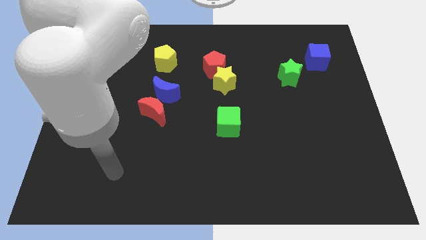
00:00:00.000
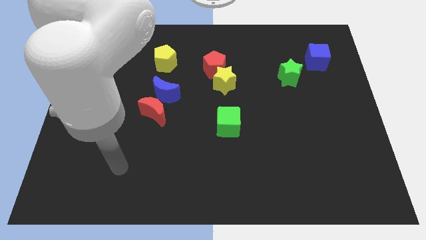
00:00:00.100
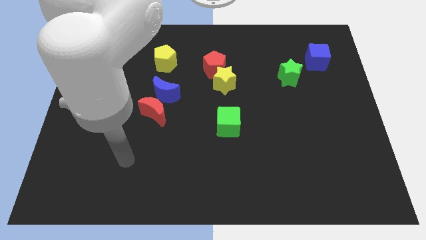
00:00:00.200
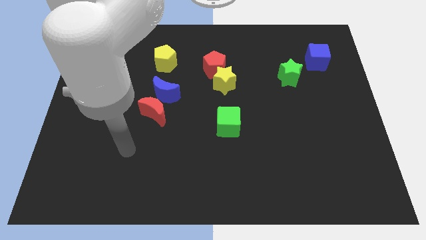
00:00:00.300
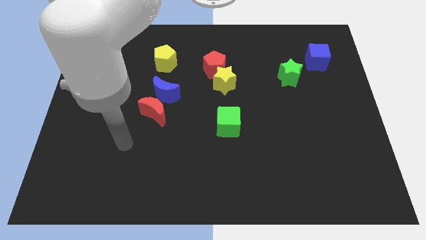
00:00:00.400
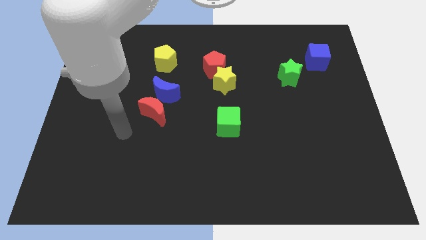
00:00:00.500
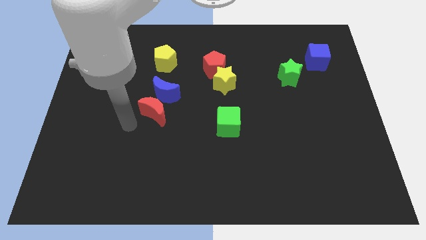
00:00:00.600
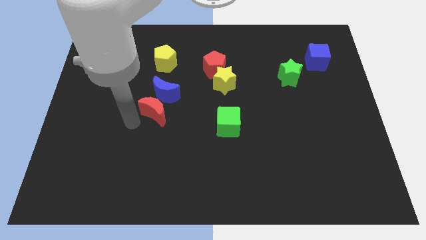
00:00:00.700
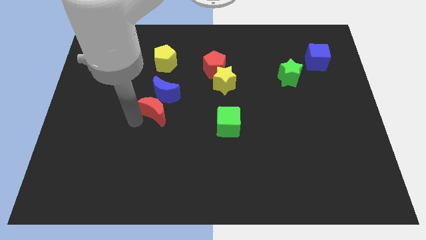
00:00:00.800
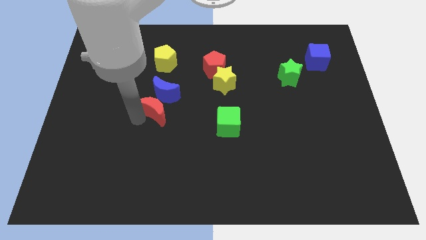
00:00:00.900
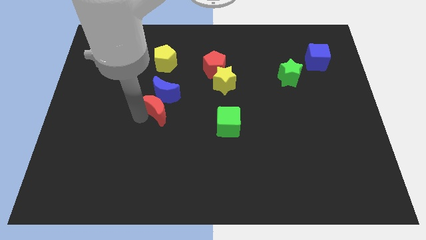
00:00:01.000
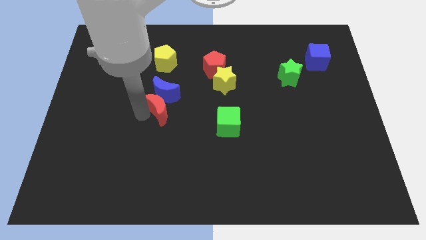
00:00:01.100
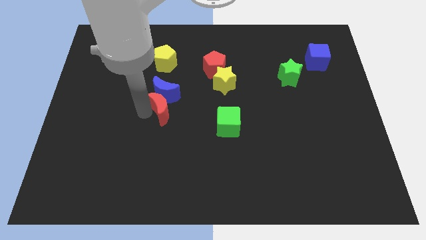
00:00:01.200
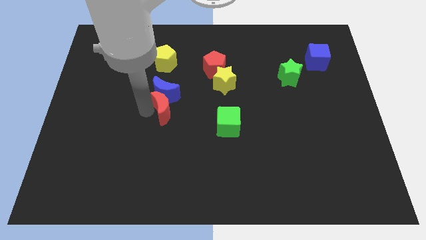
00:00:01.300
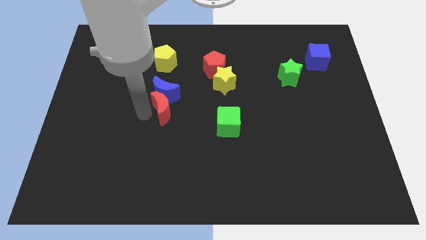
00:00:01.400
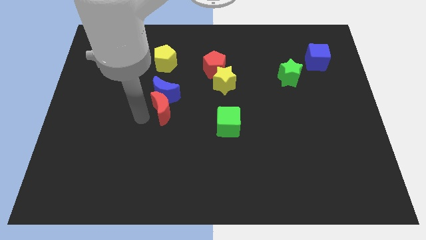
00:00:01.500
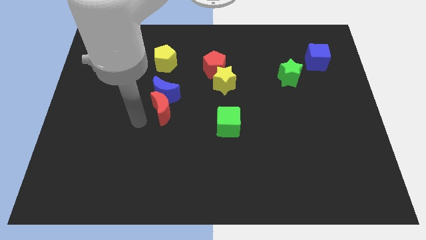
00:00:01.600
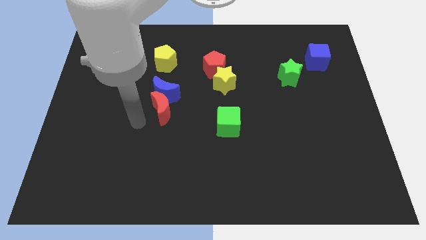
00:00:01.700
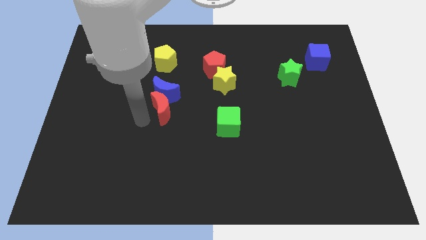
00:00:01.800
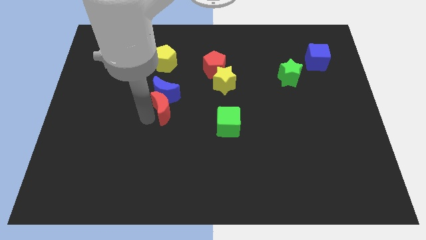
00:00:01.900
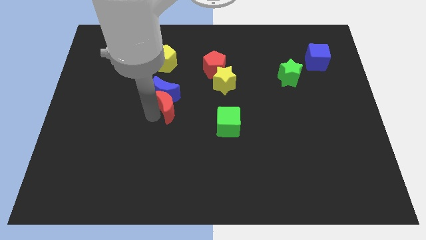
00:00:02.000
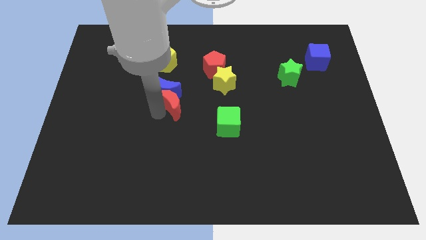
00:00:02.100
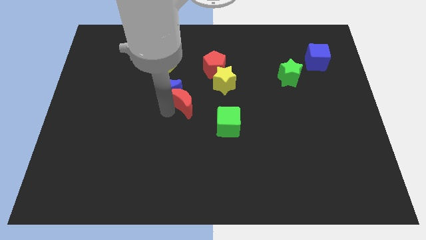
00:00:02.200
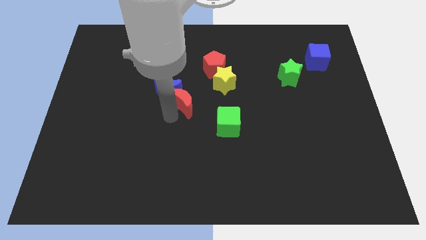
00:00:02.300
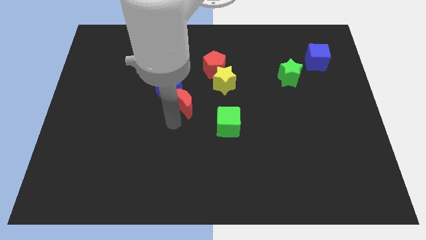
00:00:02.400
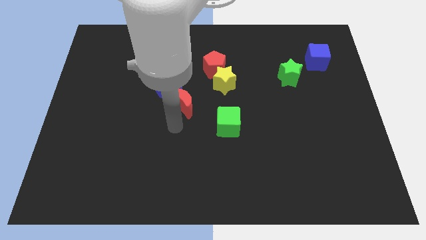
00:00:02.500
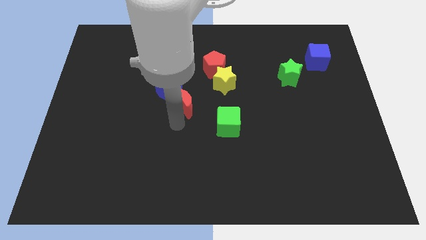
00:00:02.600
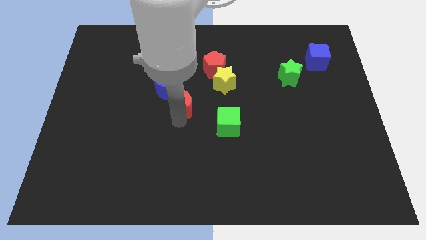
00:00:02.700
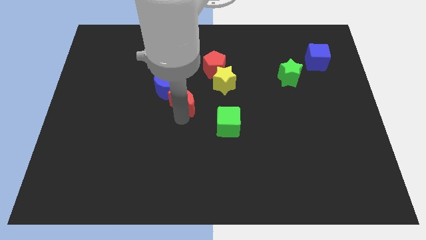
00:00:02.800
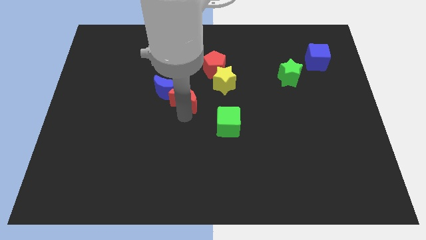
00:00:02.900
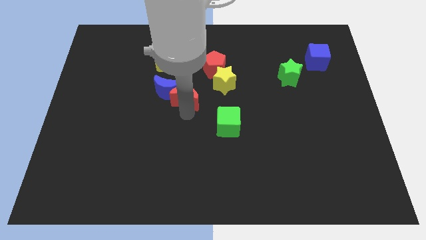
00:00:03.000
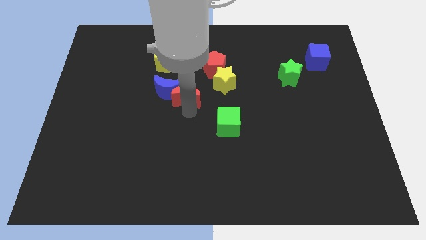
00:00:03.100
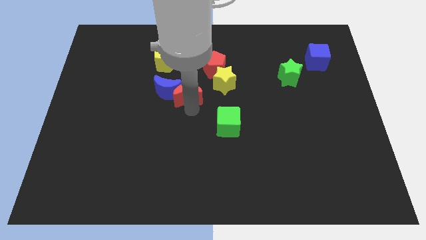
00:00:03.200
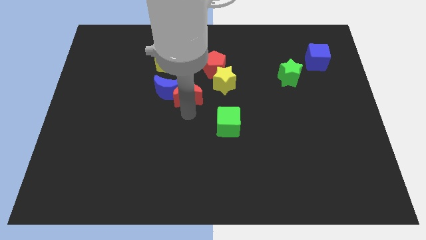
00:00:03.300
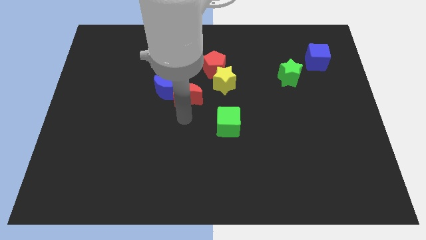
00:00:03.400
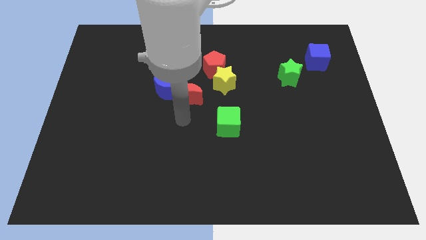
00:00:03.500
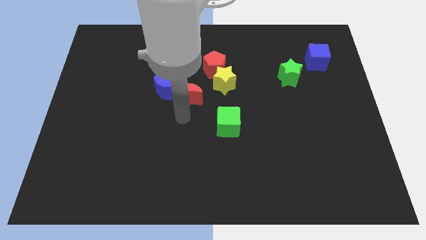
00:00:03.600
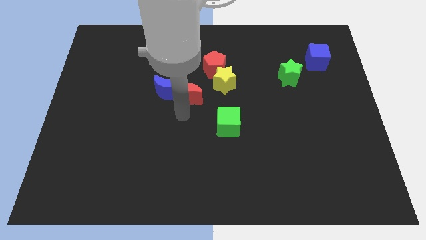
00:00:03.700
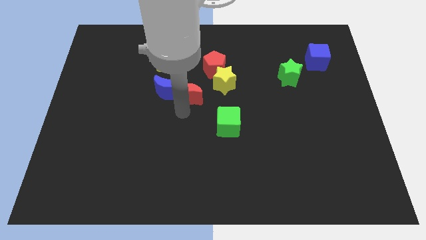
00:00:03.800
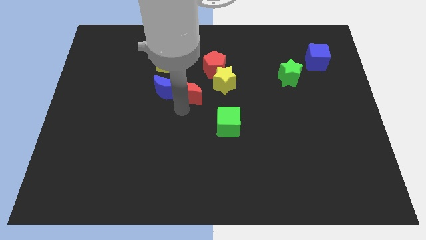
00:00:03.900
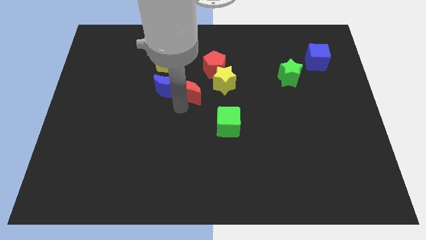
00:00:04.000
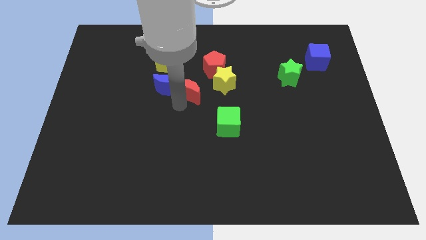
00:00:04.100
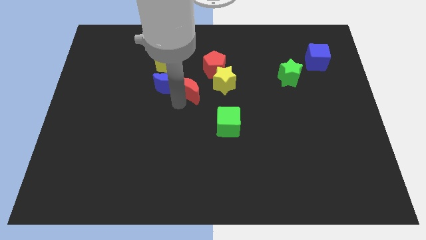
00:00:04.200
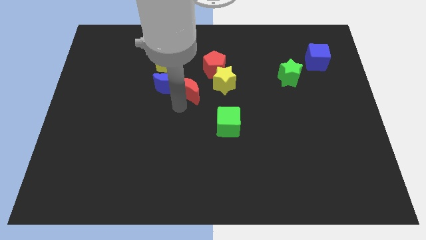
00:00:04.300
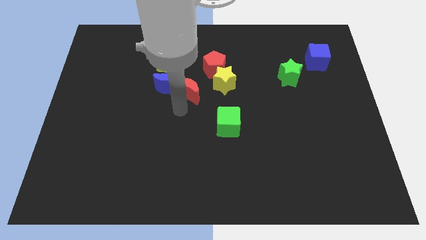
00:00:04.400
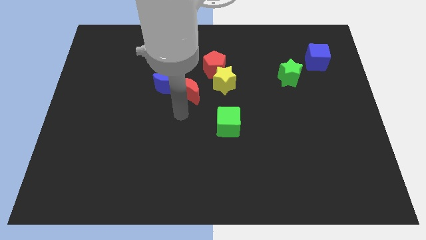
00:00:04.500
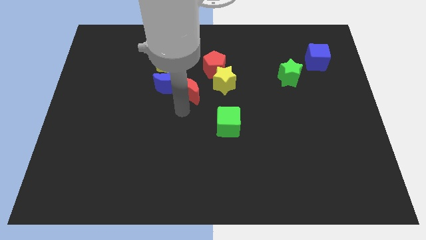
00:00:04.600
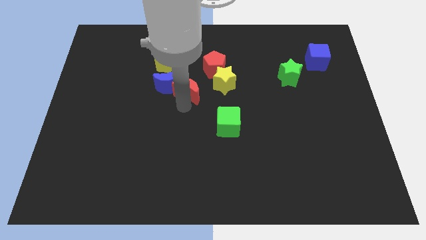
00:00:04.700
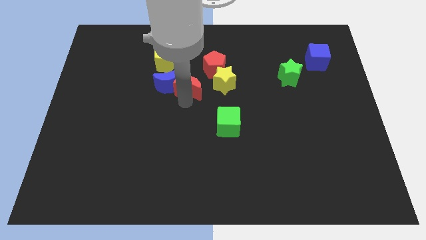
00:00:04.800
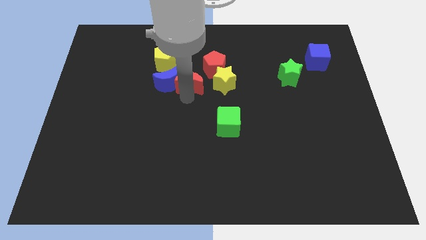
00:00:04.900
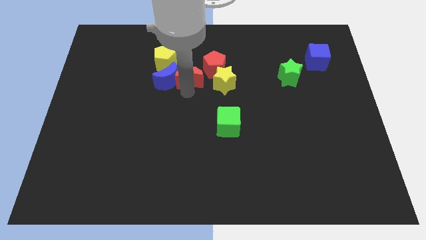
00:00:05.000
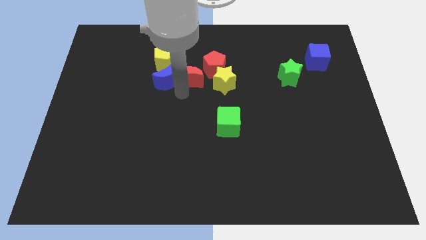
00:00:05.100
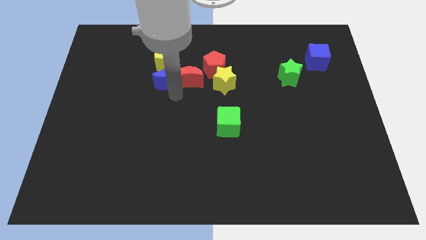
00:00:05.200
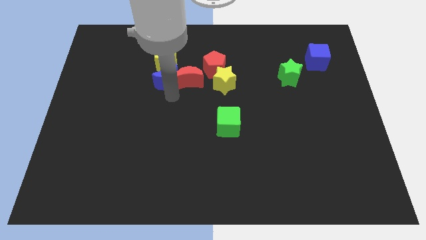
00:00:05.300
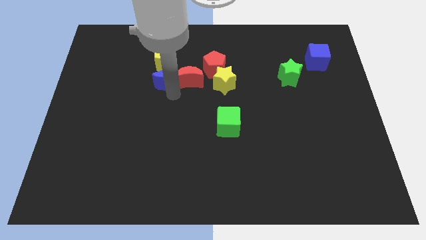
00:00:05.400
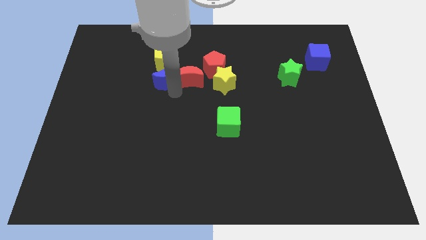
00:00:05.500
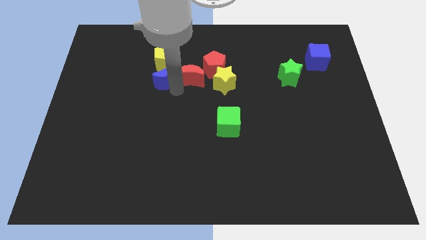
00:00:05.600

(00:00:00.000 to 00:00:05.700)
push the red moon to the top left side of the yellow star

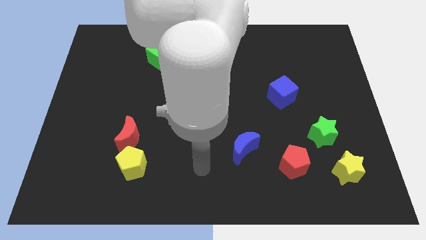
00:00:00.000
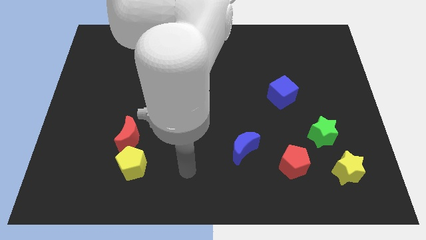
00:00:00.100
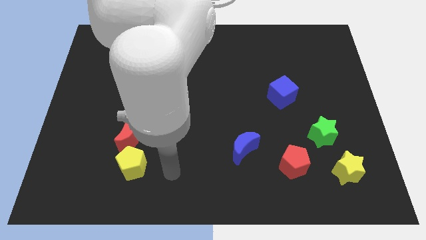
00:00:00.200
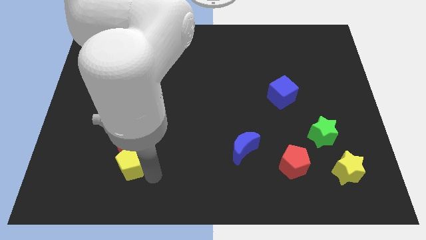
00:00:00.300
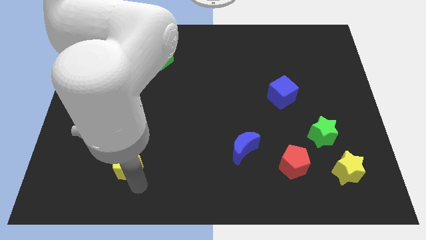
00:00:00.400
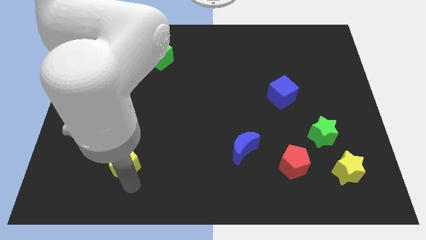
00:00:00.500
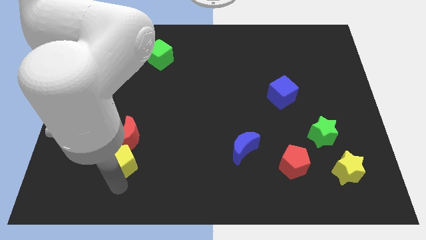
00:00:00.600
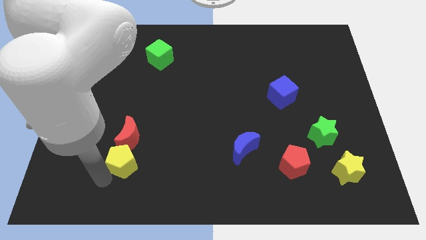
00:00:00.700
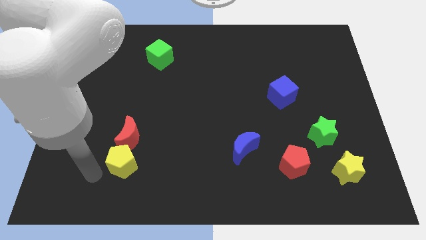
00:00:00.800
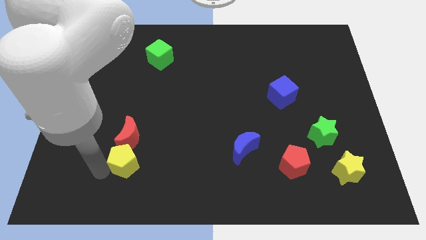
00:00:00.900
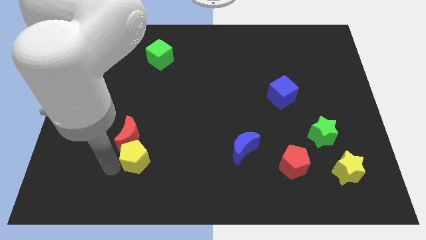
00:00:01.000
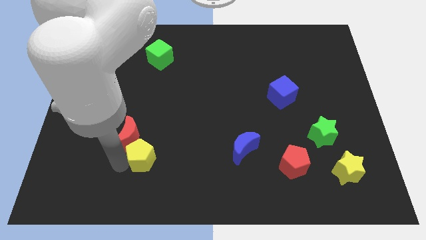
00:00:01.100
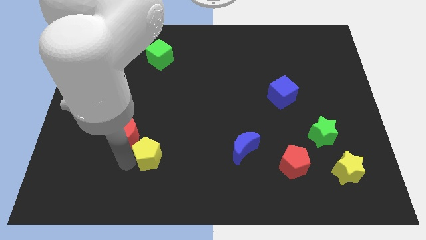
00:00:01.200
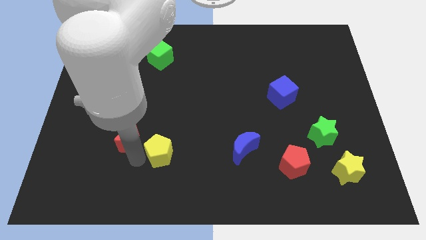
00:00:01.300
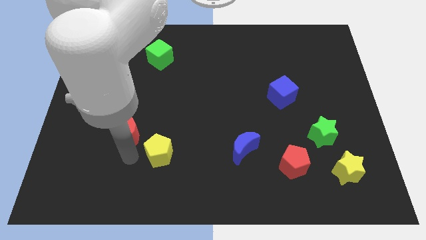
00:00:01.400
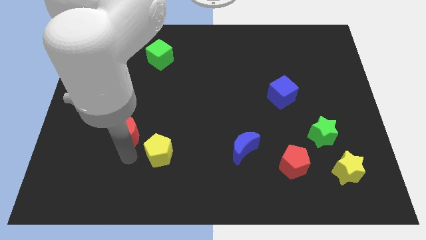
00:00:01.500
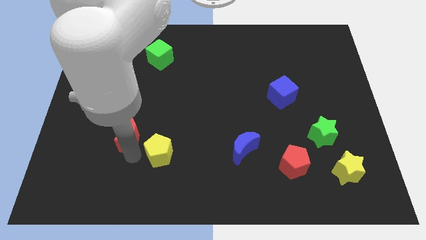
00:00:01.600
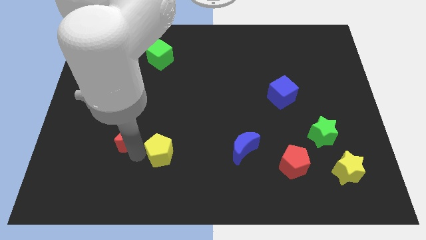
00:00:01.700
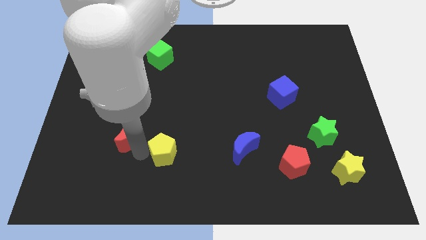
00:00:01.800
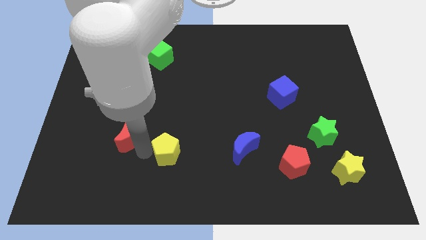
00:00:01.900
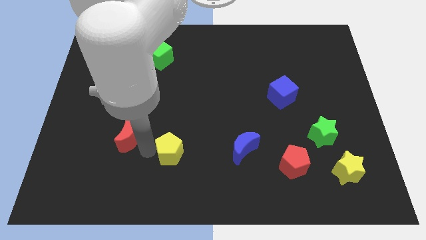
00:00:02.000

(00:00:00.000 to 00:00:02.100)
put the yellow pentagon to the left of the blue moon
